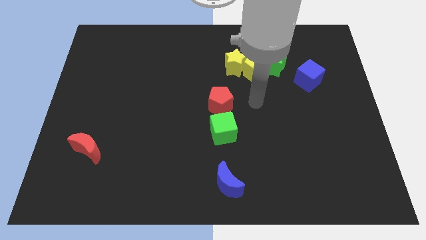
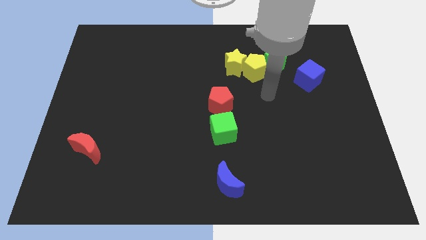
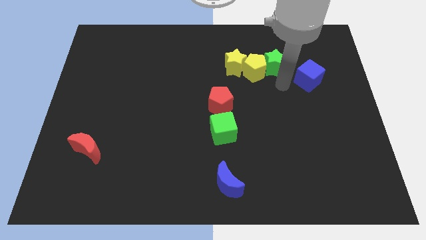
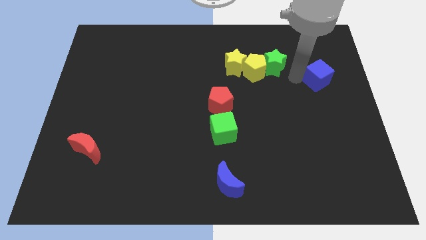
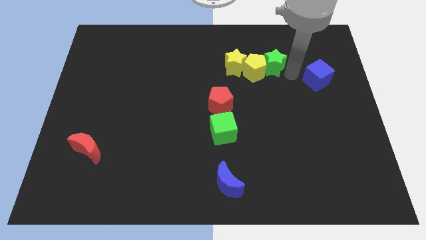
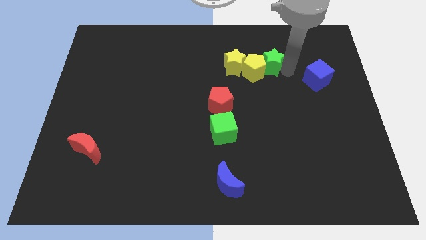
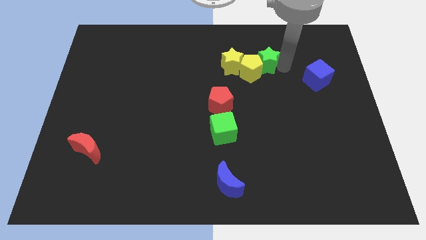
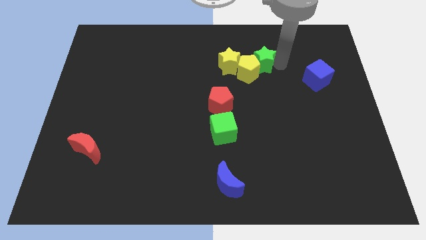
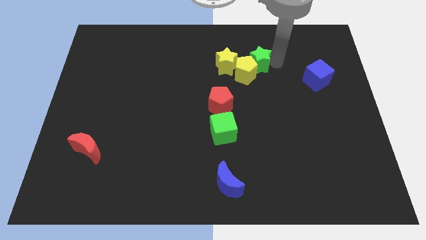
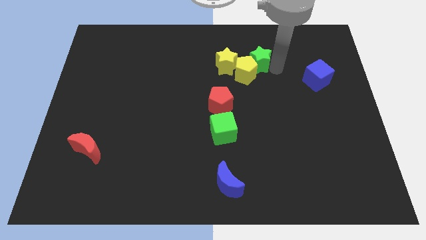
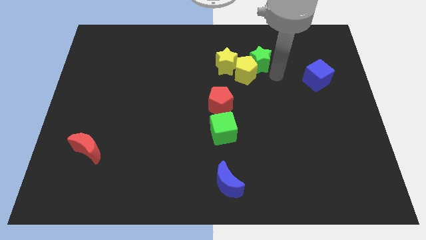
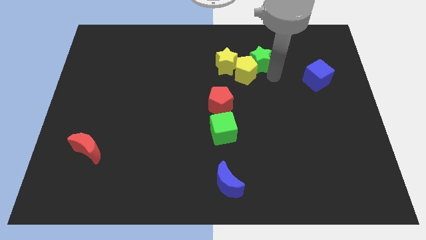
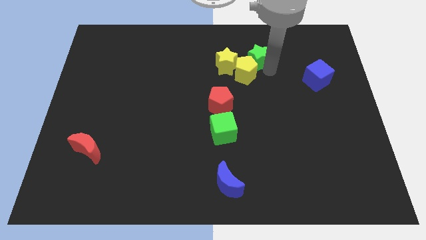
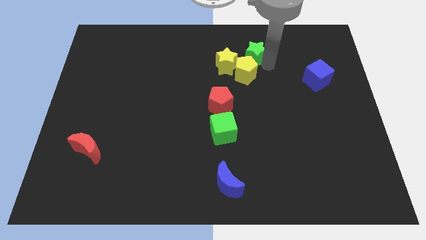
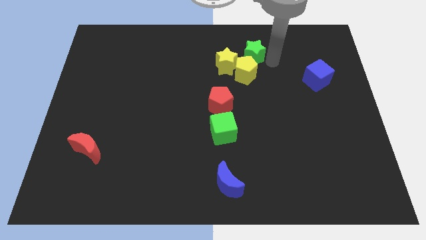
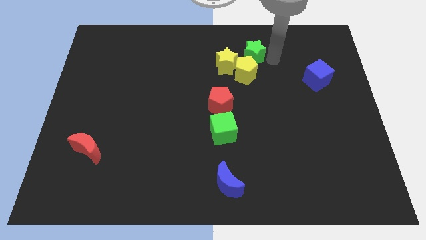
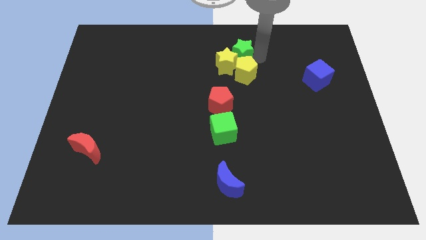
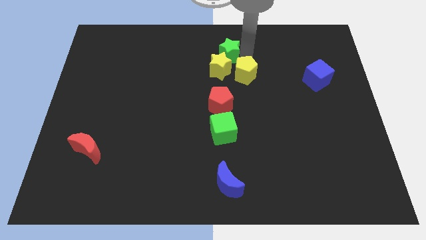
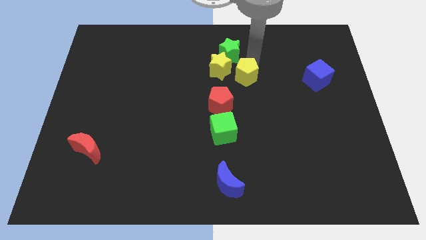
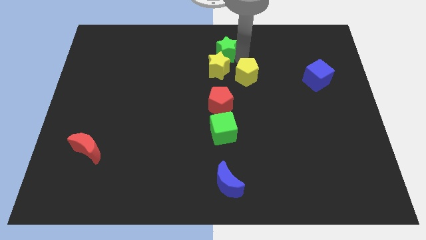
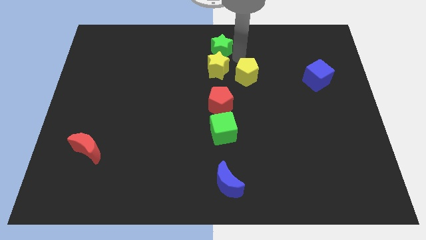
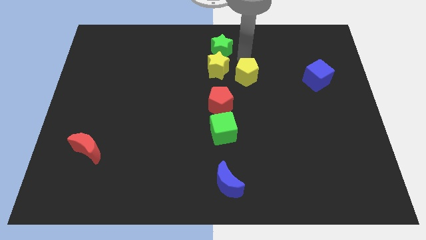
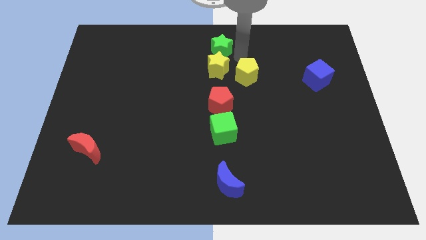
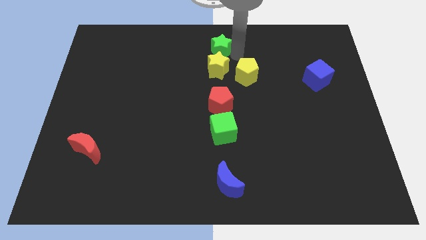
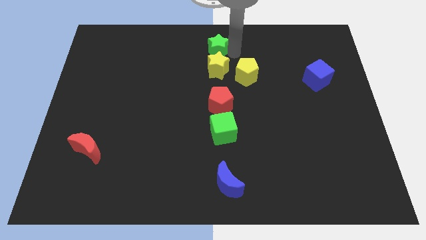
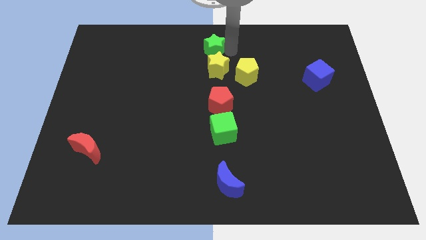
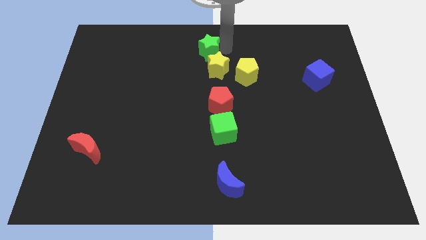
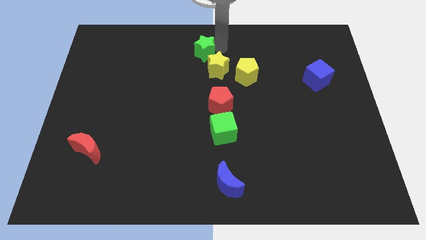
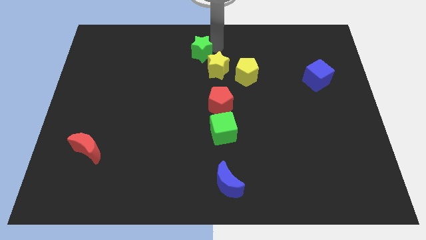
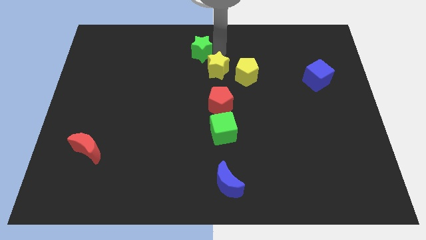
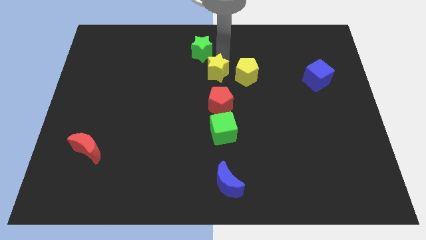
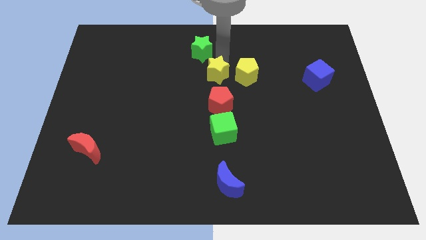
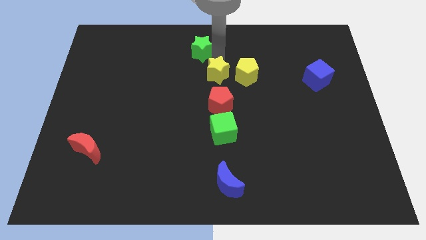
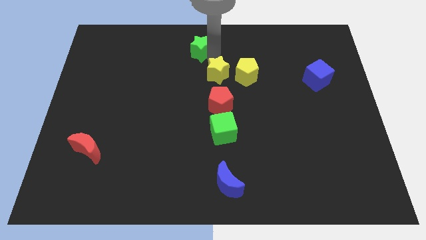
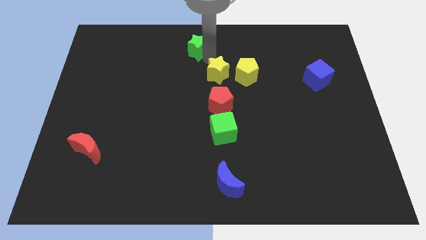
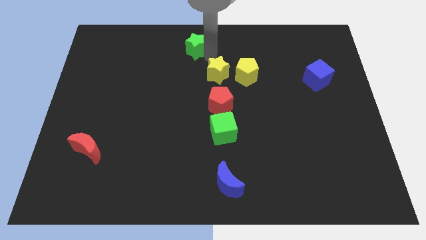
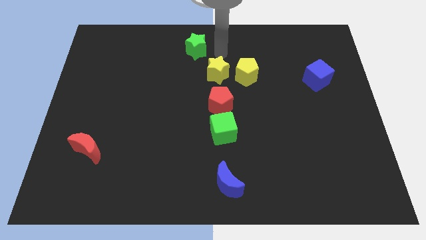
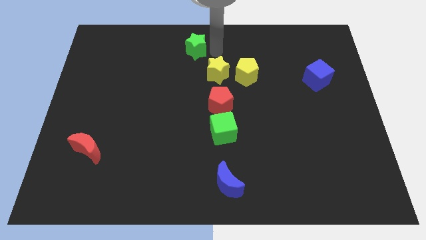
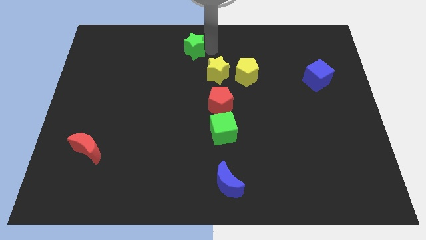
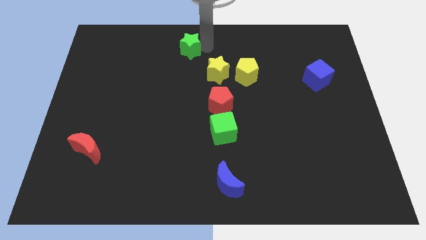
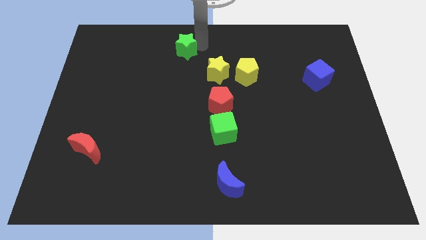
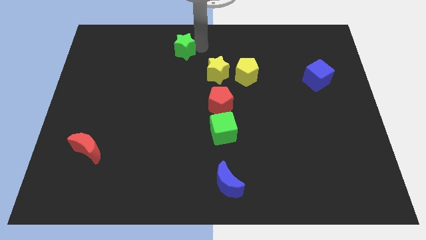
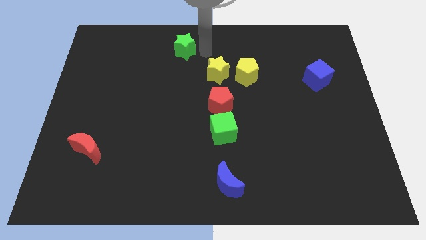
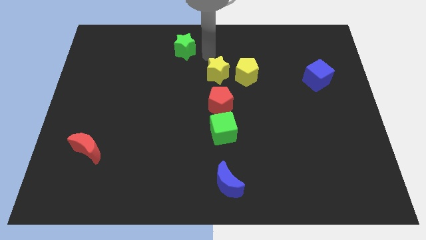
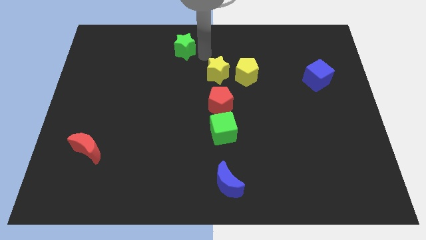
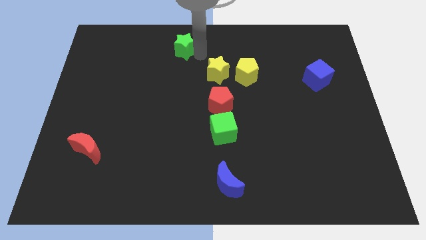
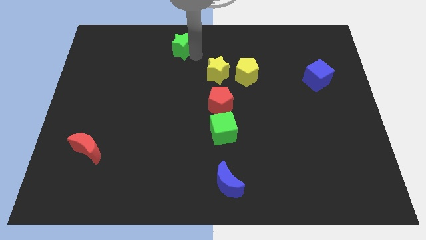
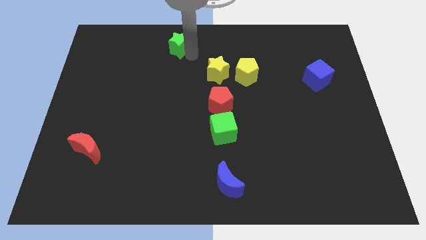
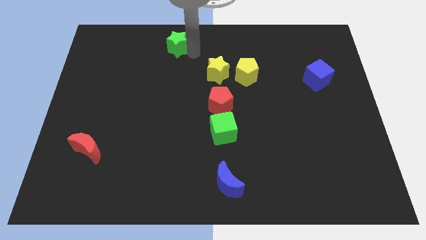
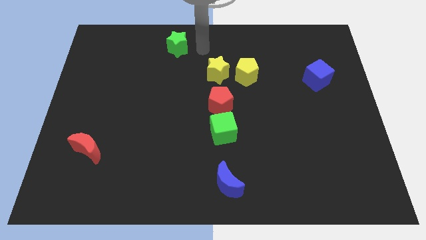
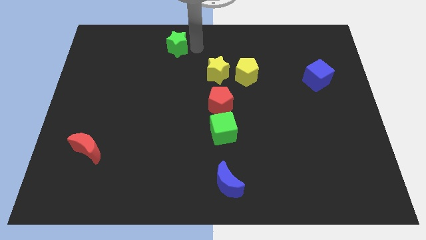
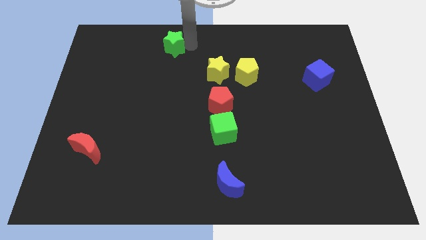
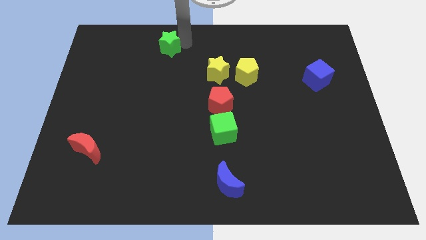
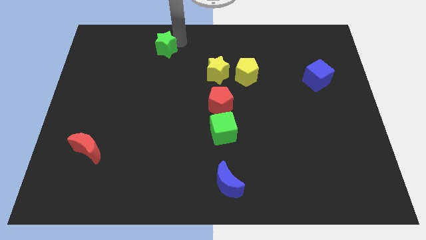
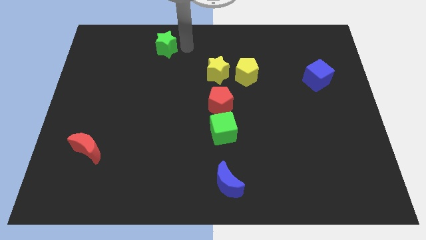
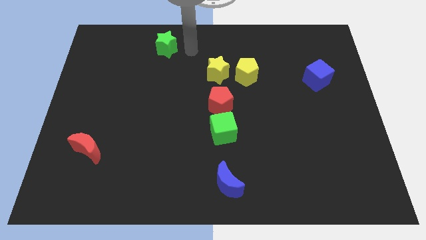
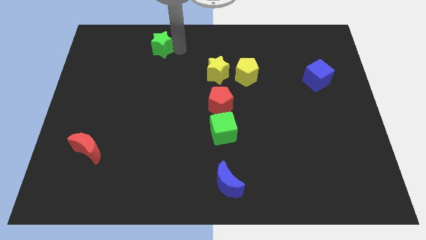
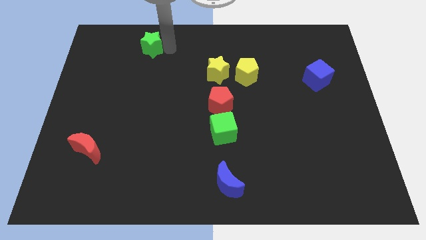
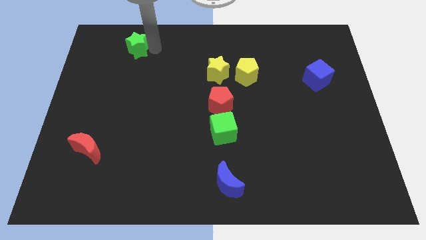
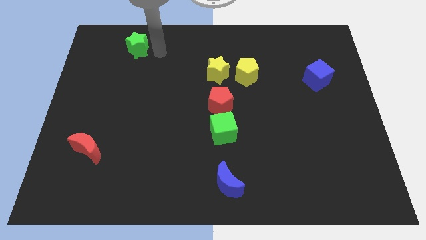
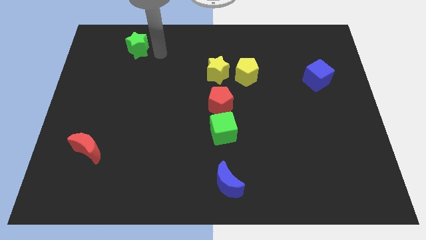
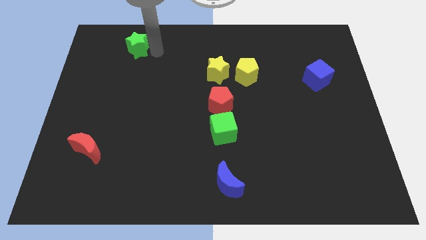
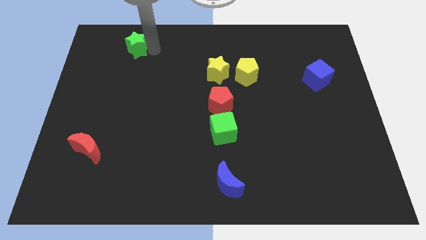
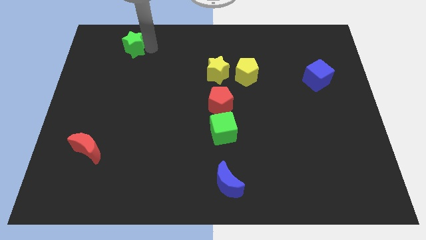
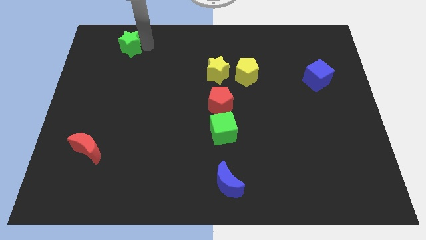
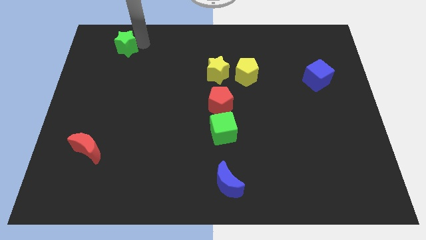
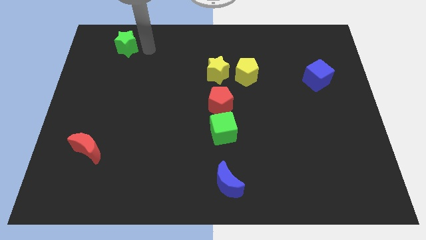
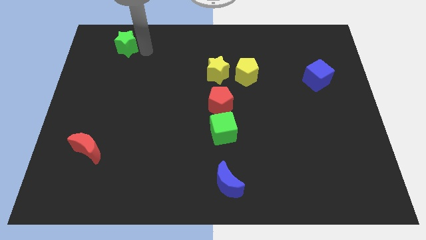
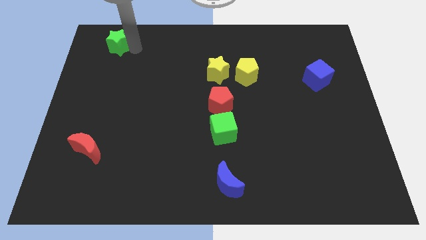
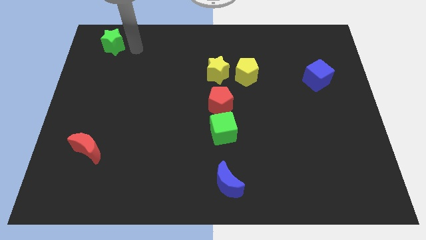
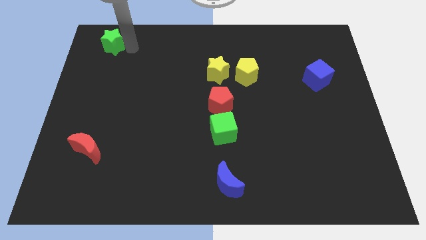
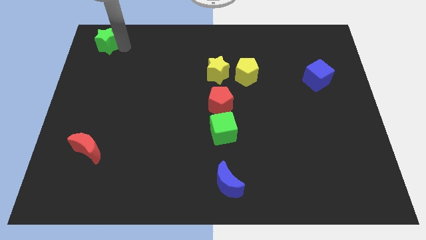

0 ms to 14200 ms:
move the green star to the top left of the board

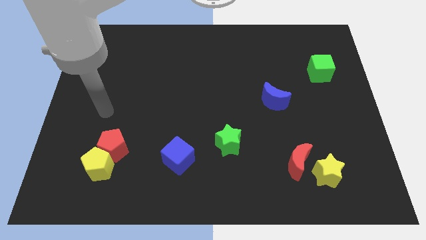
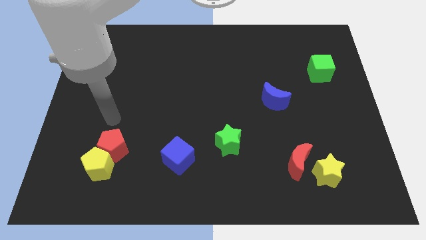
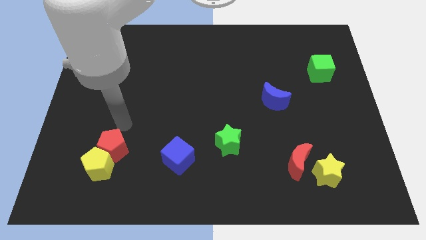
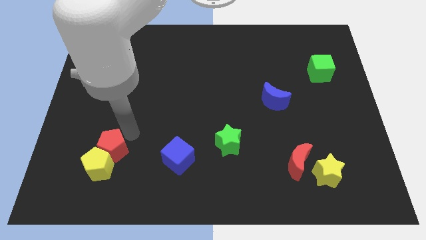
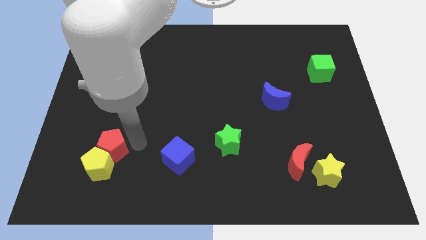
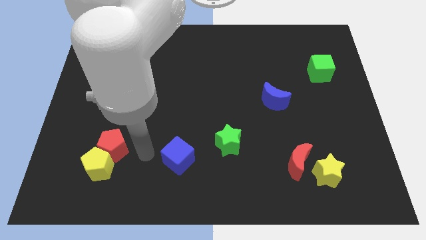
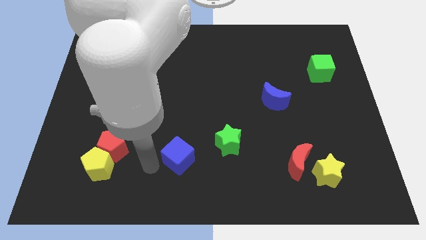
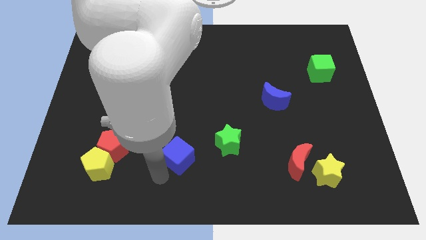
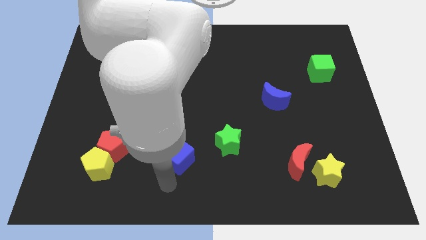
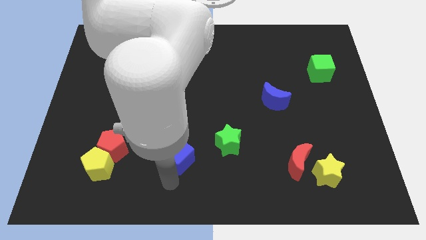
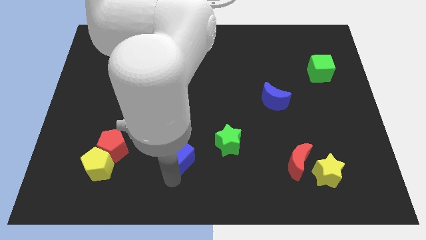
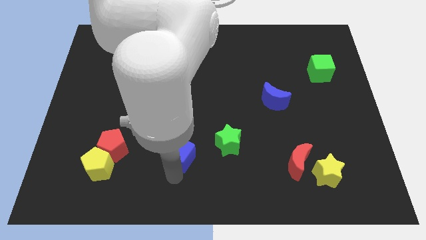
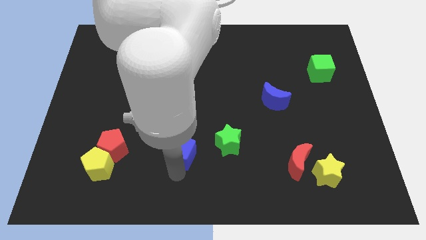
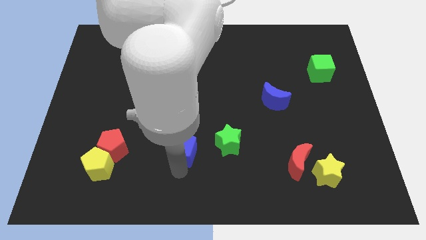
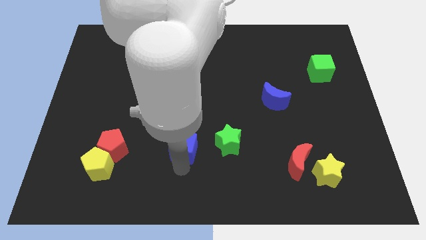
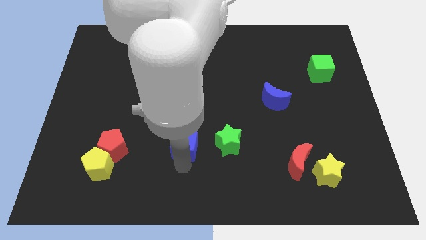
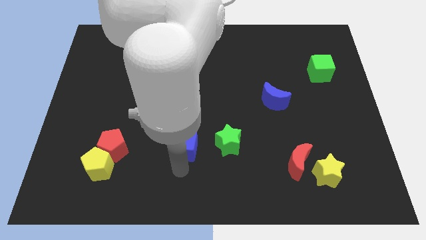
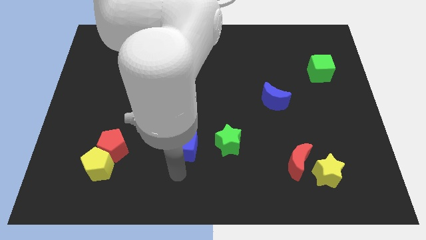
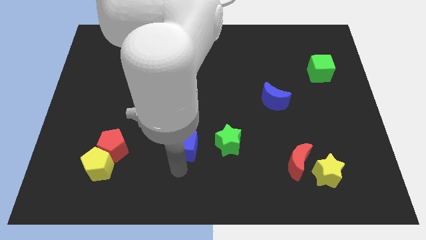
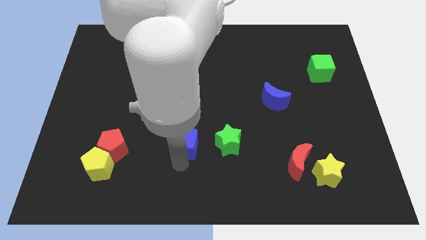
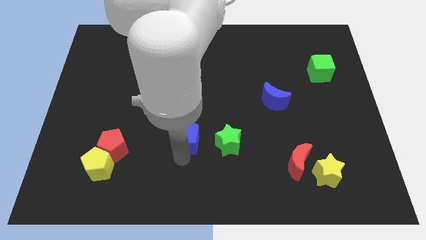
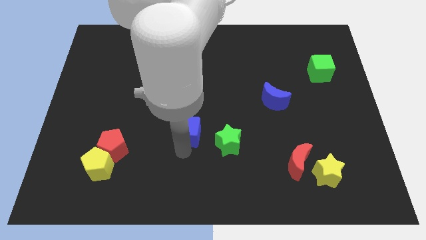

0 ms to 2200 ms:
put the blue cube to the center
